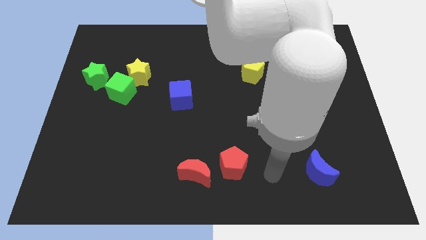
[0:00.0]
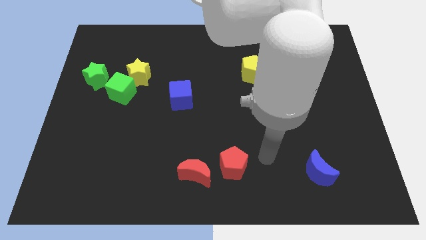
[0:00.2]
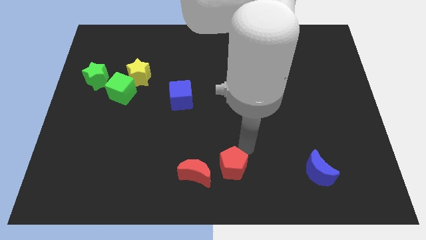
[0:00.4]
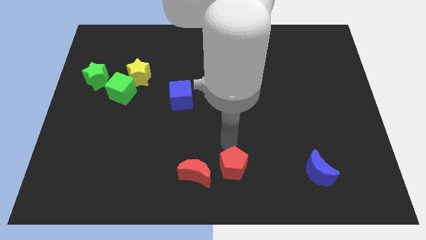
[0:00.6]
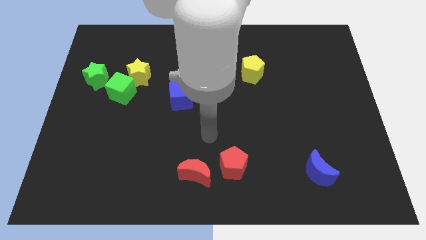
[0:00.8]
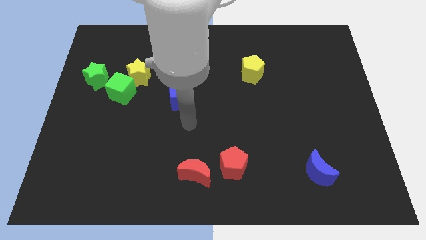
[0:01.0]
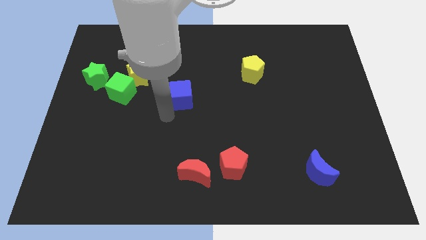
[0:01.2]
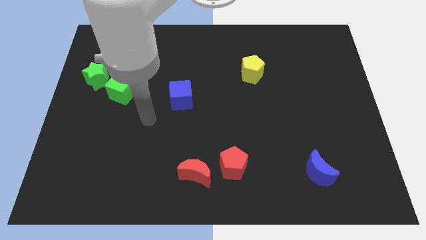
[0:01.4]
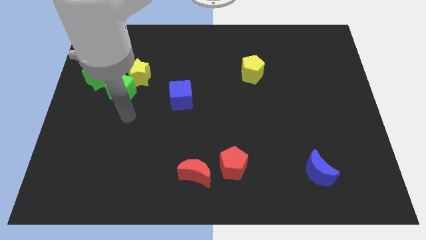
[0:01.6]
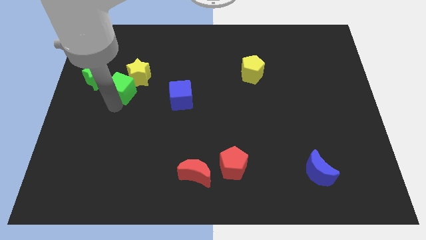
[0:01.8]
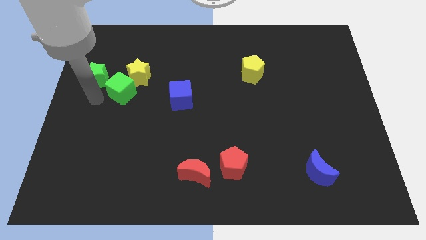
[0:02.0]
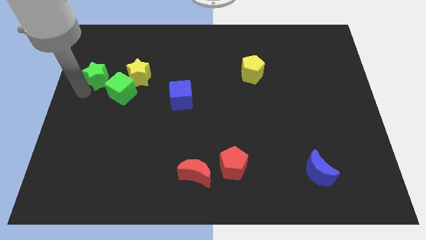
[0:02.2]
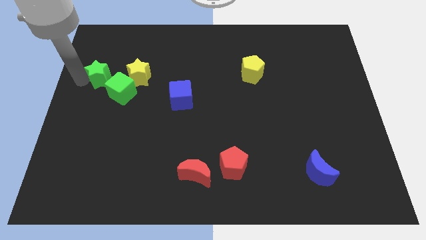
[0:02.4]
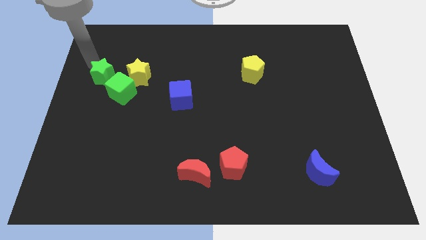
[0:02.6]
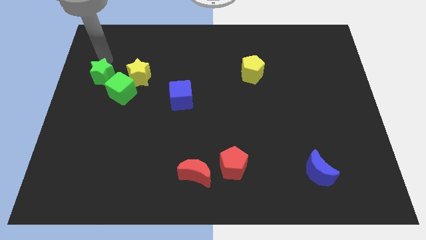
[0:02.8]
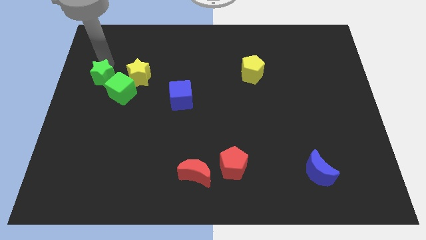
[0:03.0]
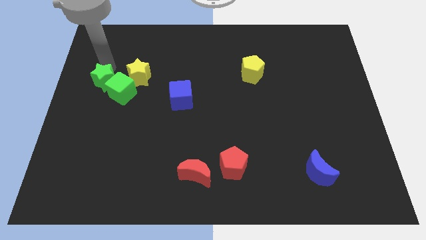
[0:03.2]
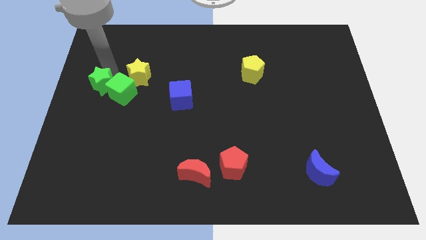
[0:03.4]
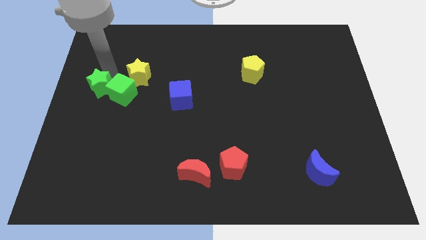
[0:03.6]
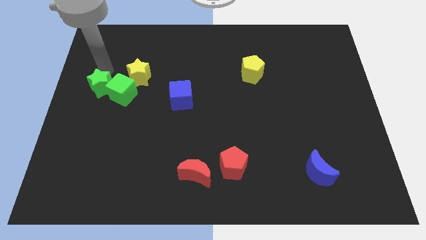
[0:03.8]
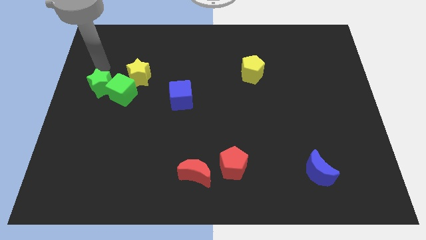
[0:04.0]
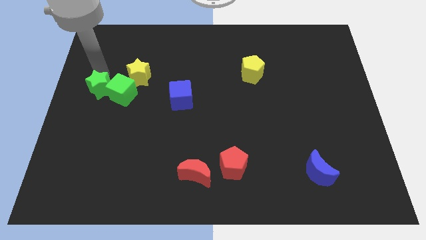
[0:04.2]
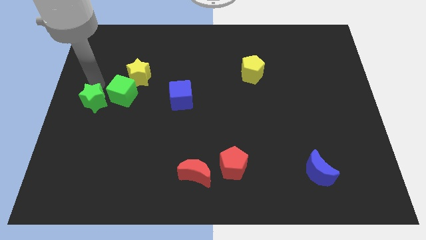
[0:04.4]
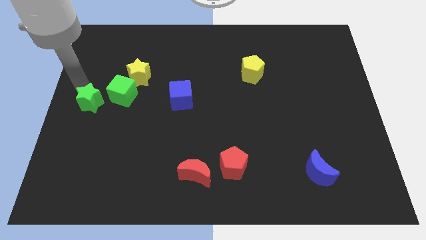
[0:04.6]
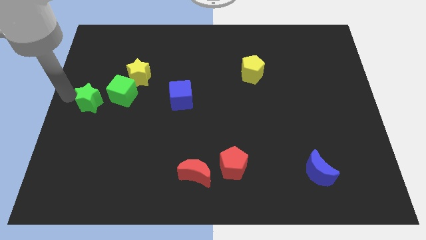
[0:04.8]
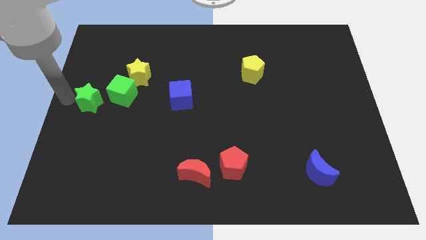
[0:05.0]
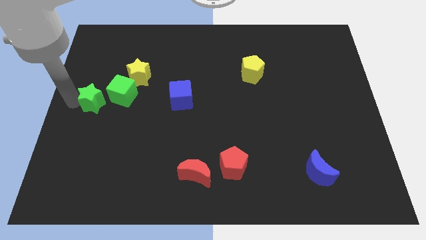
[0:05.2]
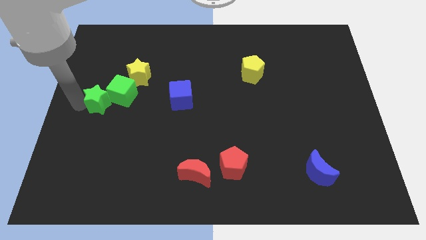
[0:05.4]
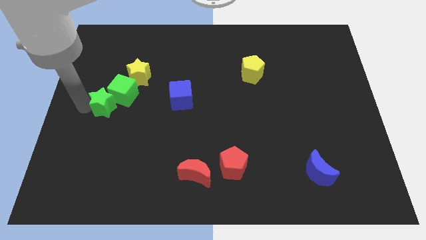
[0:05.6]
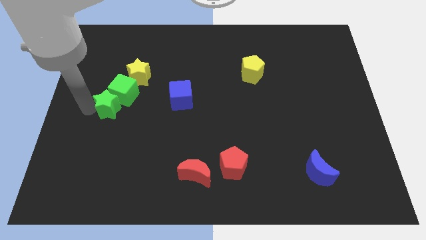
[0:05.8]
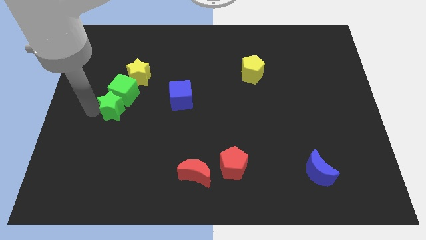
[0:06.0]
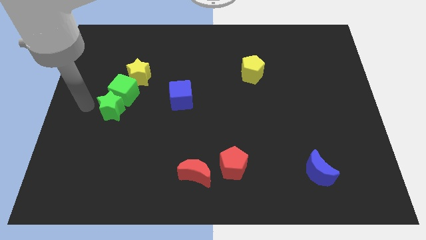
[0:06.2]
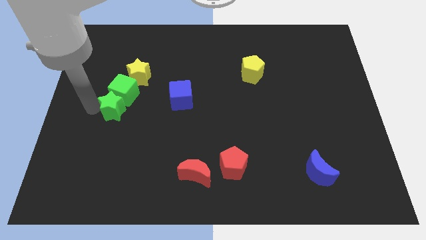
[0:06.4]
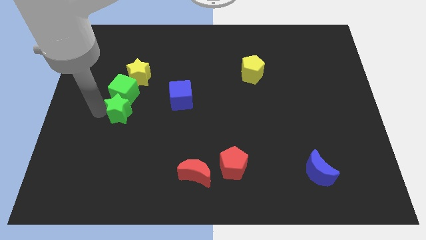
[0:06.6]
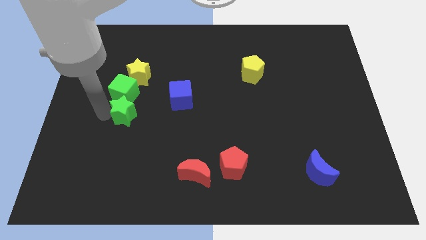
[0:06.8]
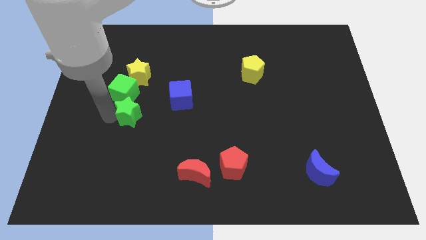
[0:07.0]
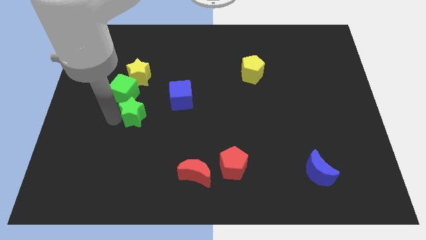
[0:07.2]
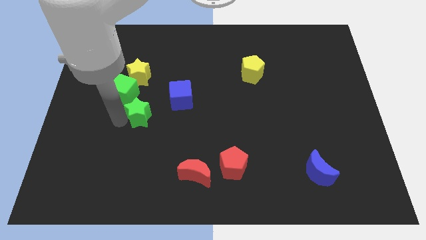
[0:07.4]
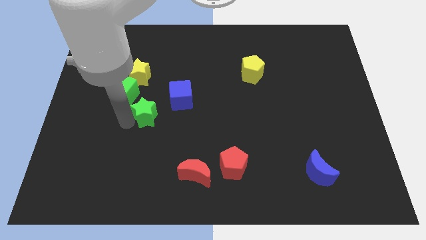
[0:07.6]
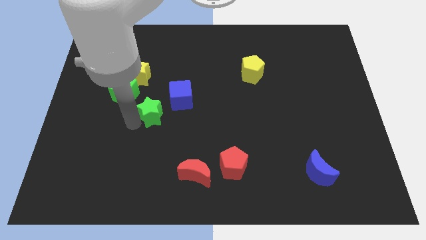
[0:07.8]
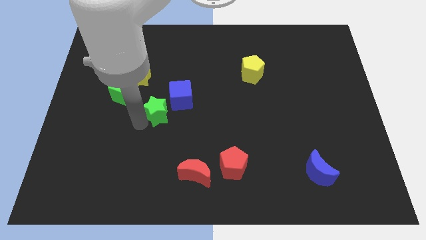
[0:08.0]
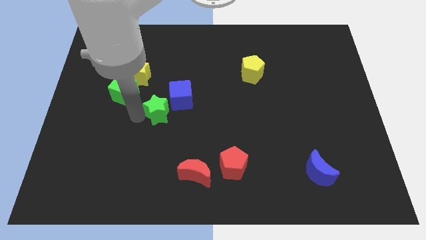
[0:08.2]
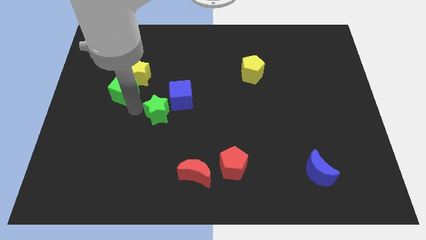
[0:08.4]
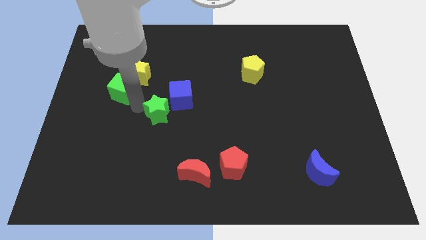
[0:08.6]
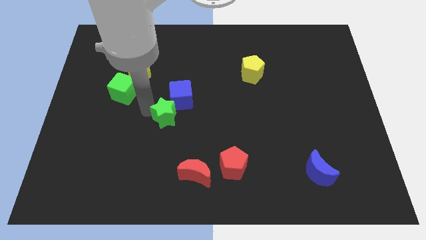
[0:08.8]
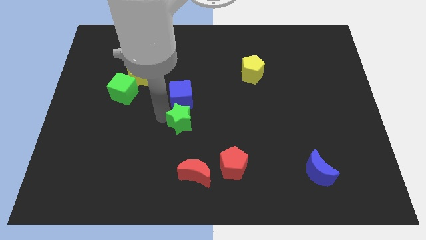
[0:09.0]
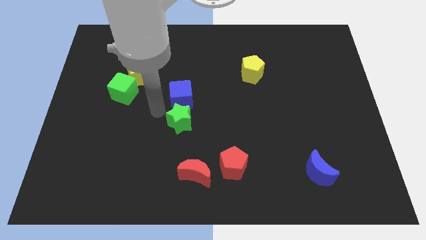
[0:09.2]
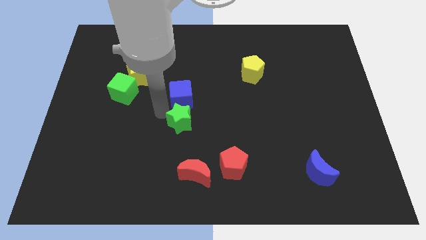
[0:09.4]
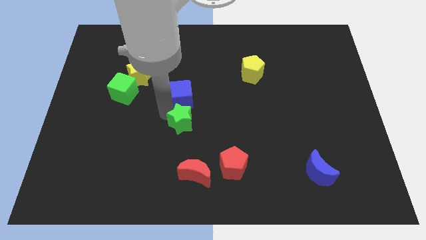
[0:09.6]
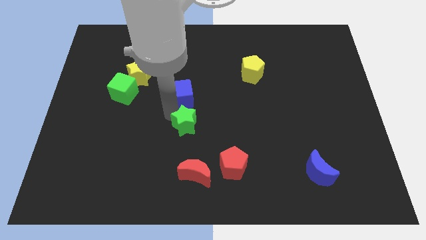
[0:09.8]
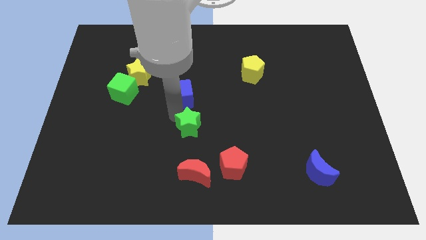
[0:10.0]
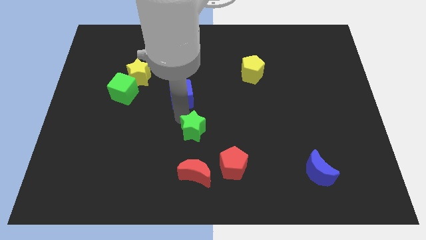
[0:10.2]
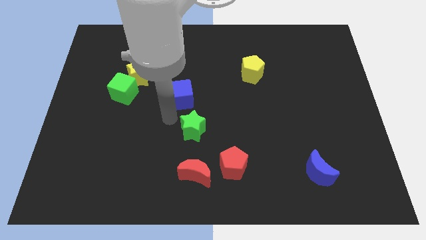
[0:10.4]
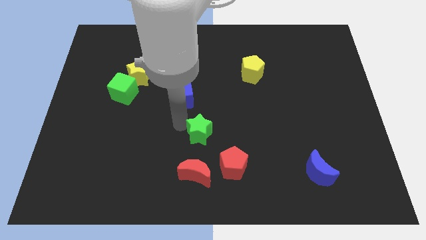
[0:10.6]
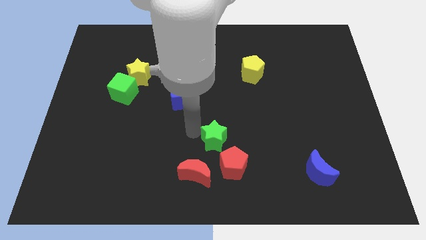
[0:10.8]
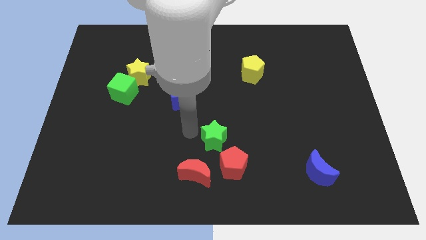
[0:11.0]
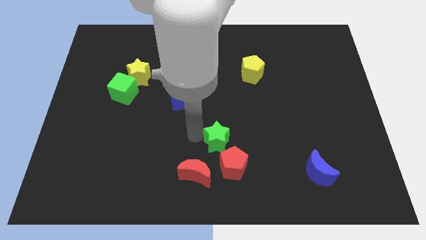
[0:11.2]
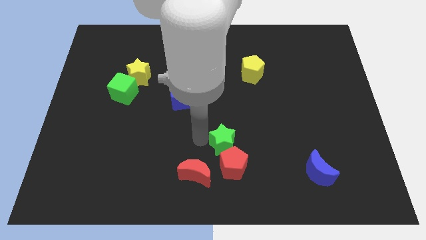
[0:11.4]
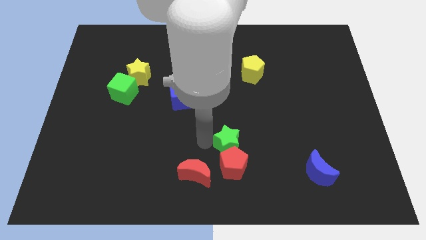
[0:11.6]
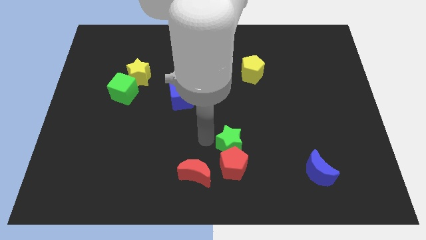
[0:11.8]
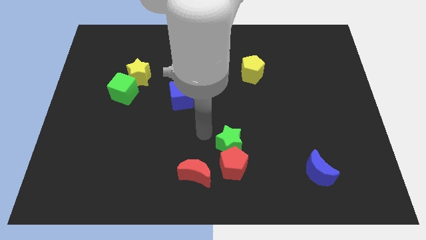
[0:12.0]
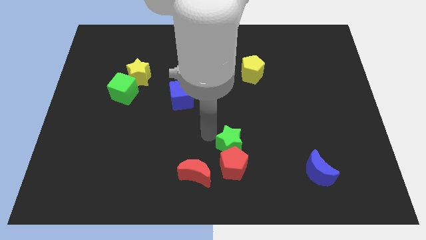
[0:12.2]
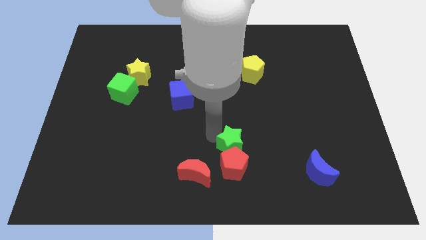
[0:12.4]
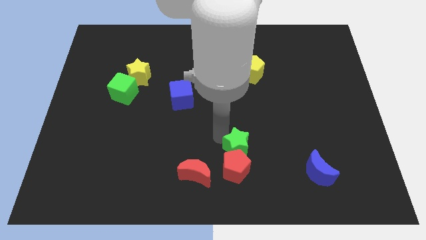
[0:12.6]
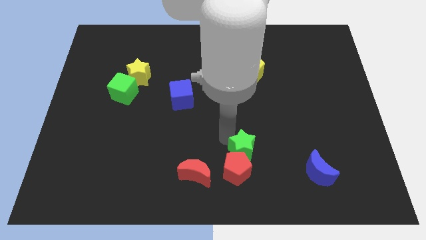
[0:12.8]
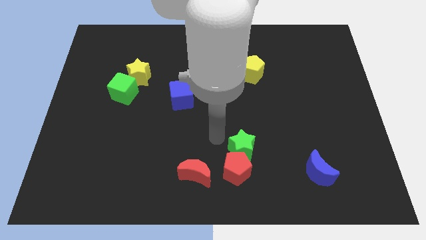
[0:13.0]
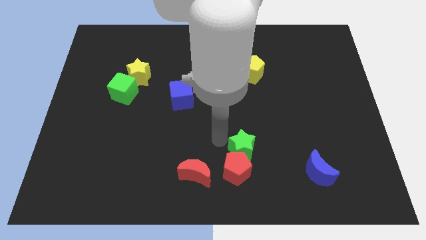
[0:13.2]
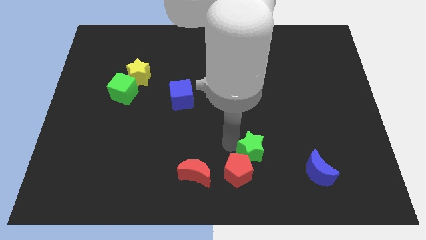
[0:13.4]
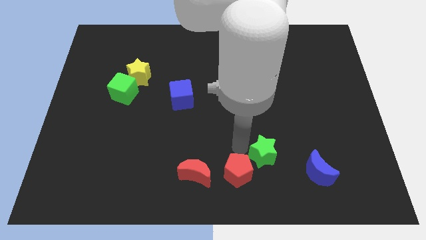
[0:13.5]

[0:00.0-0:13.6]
put the green star just right of the red pentagon

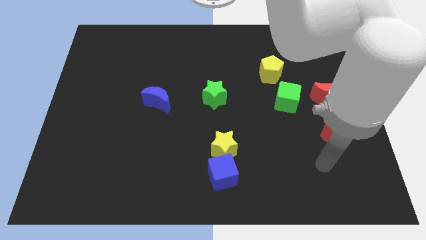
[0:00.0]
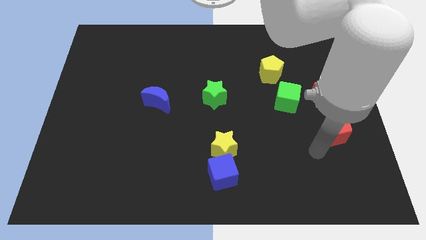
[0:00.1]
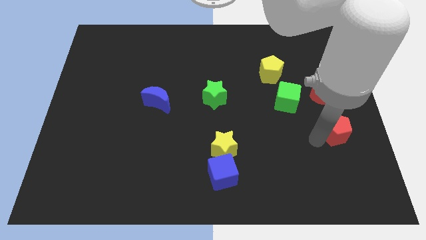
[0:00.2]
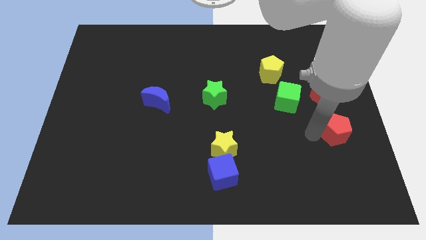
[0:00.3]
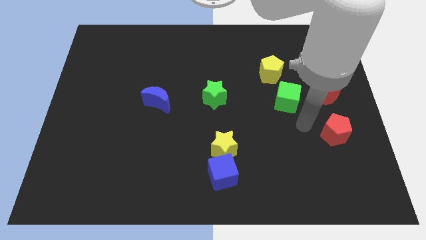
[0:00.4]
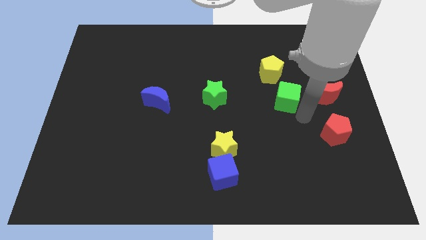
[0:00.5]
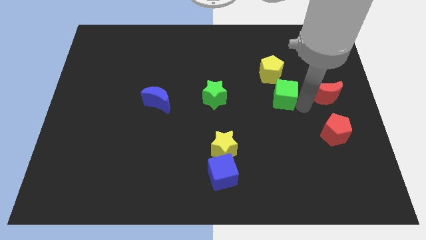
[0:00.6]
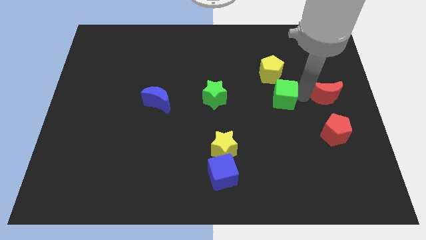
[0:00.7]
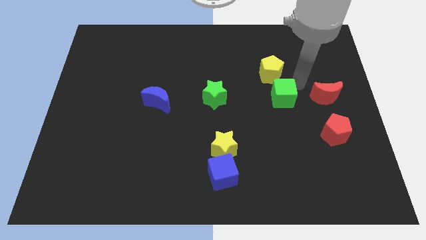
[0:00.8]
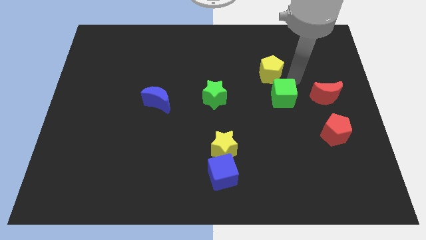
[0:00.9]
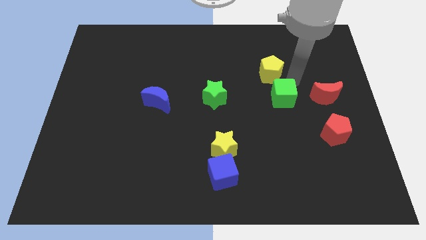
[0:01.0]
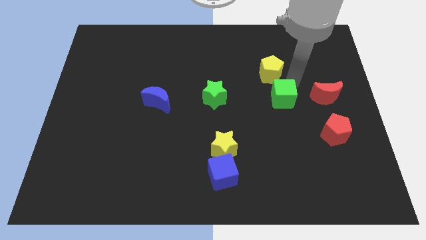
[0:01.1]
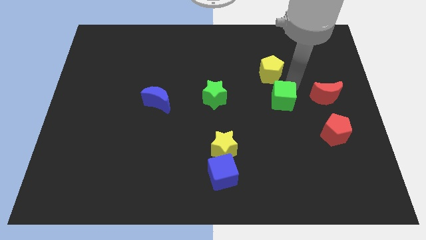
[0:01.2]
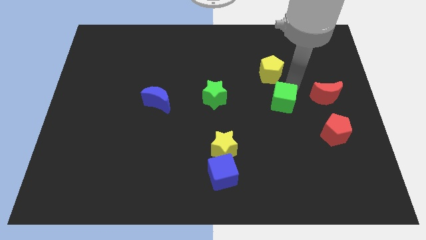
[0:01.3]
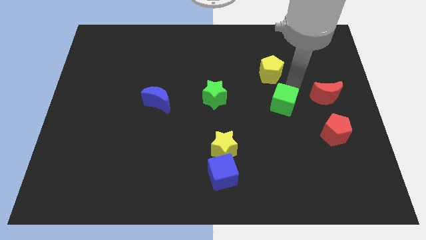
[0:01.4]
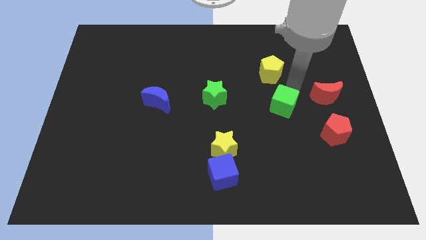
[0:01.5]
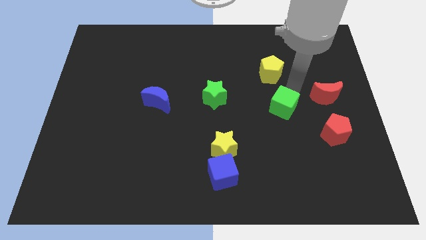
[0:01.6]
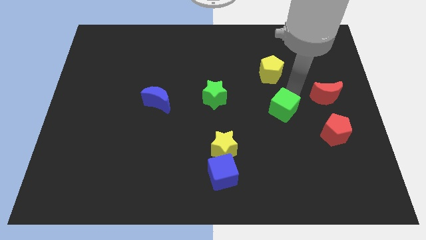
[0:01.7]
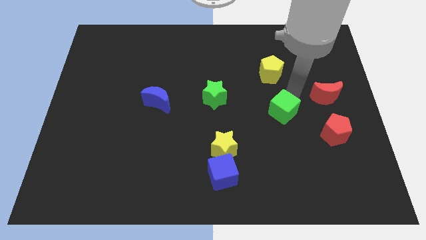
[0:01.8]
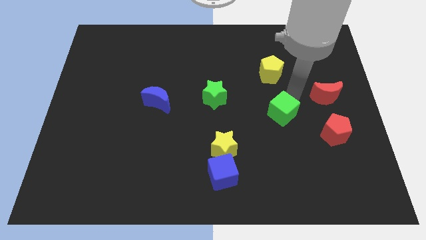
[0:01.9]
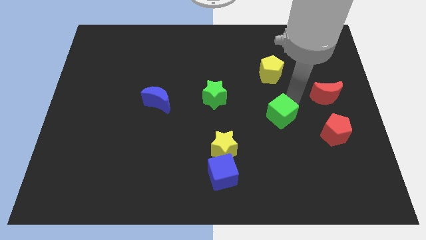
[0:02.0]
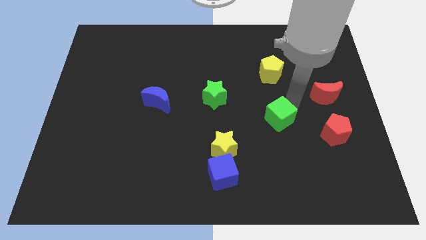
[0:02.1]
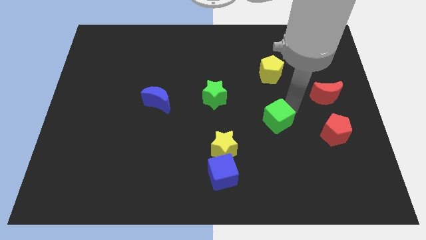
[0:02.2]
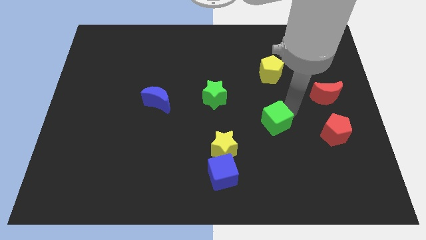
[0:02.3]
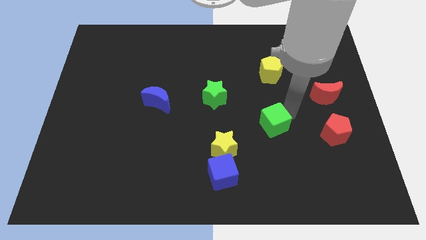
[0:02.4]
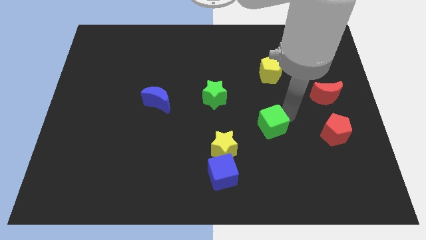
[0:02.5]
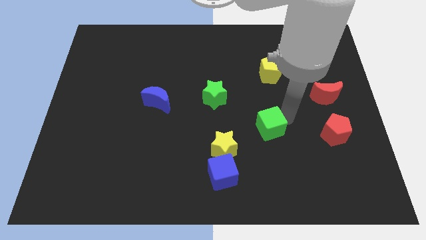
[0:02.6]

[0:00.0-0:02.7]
push the green cube diagonally up and to the right of the yellow star
